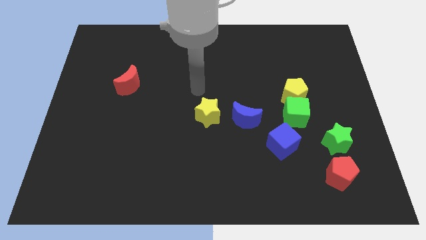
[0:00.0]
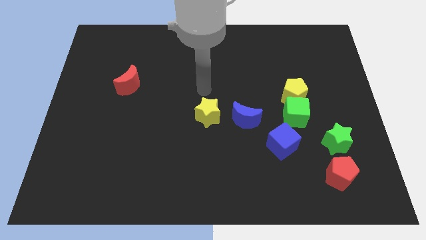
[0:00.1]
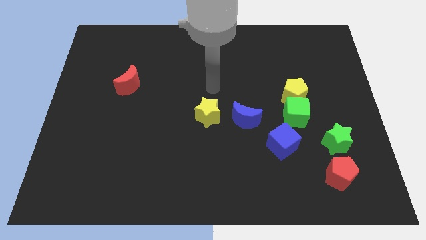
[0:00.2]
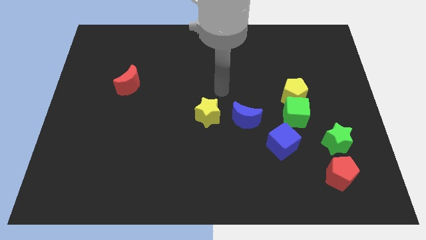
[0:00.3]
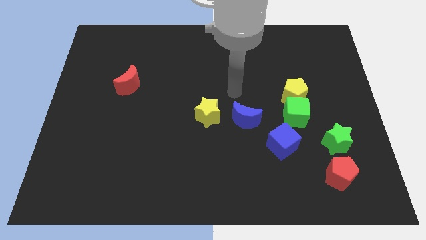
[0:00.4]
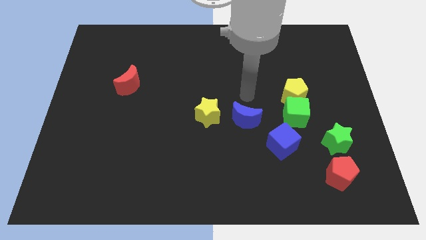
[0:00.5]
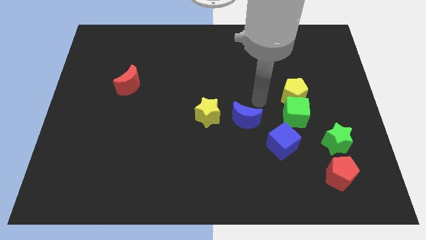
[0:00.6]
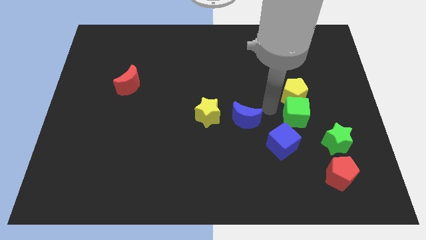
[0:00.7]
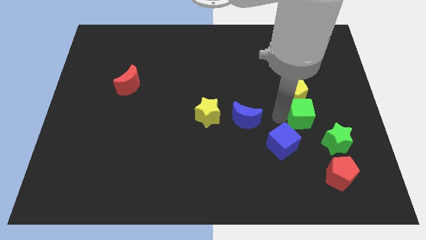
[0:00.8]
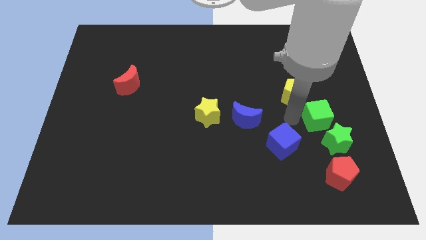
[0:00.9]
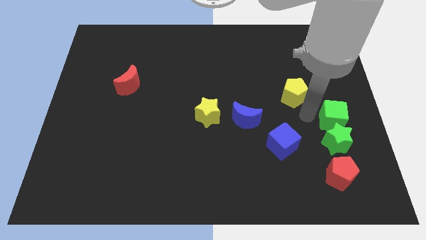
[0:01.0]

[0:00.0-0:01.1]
move the yellow pentagon away from the green cube

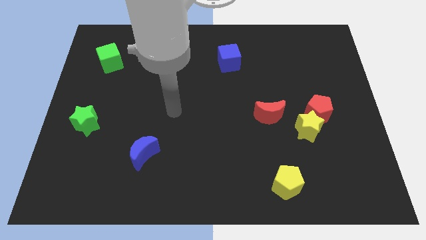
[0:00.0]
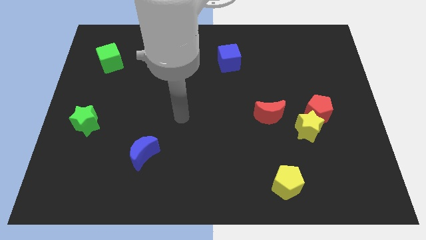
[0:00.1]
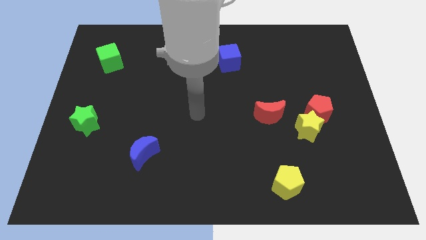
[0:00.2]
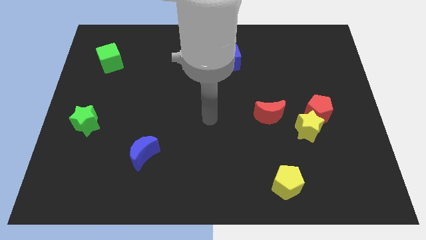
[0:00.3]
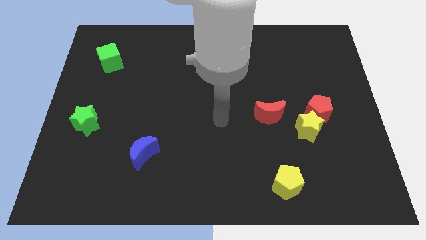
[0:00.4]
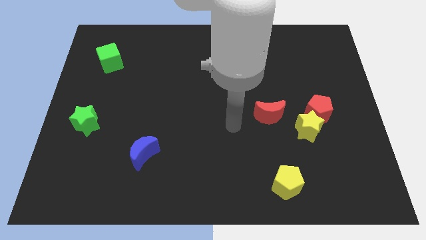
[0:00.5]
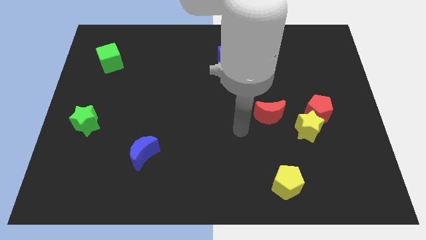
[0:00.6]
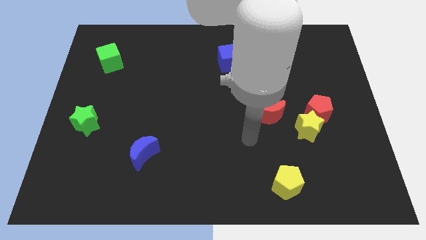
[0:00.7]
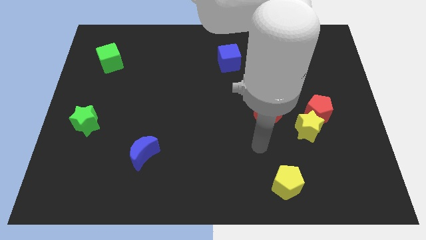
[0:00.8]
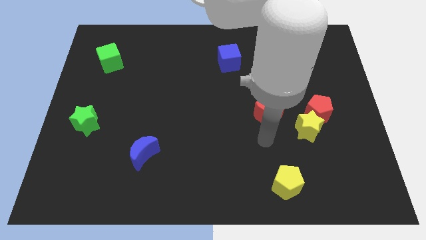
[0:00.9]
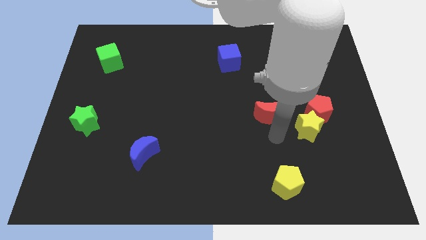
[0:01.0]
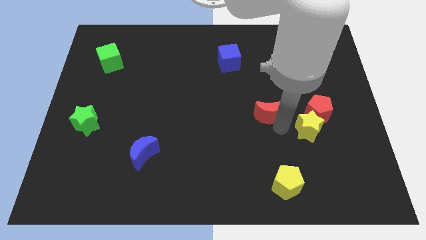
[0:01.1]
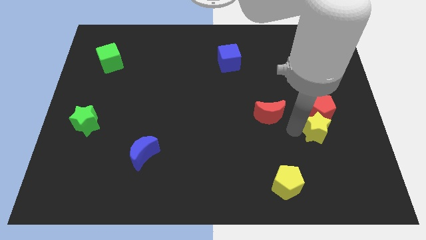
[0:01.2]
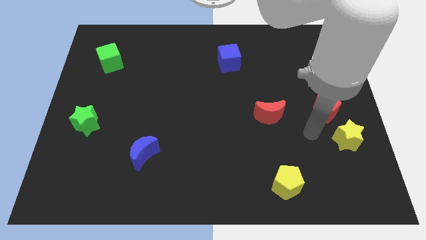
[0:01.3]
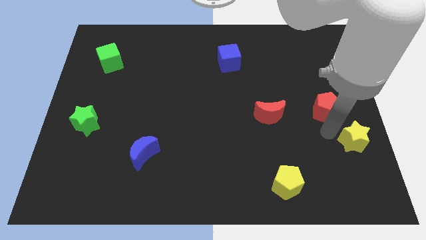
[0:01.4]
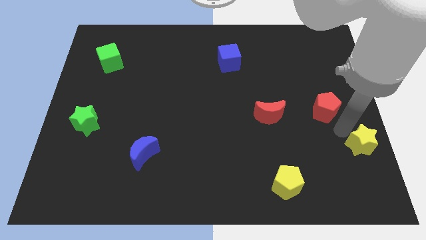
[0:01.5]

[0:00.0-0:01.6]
move the red pentagon away from the yellow star

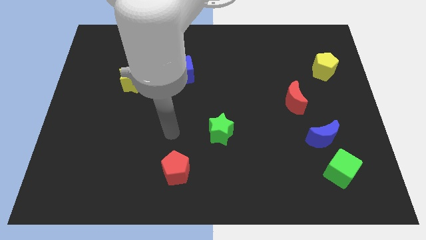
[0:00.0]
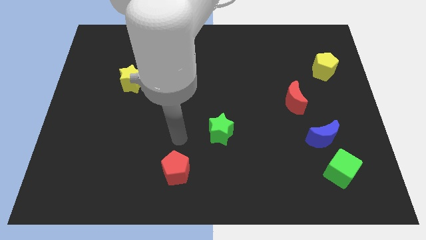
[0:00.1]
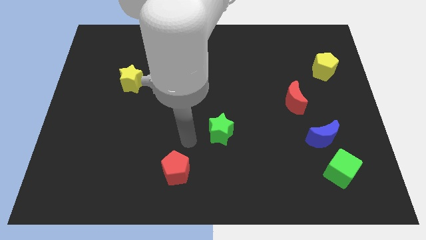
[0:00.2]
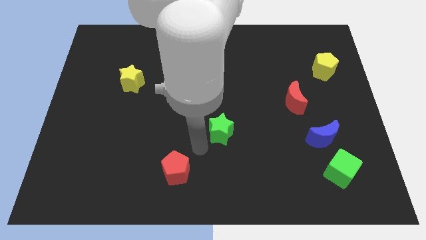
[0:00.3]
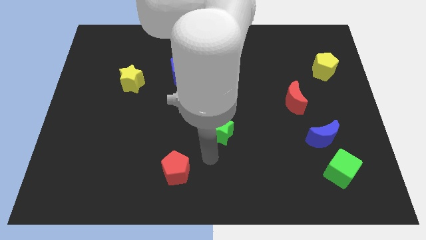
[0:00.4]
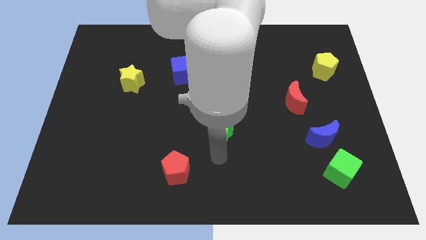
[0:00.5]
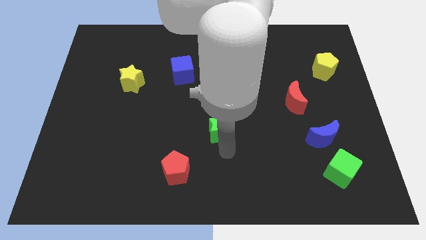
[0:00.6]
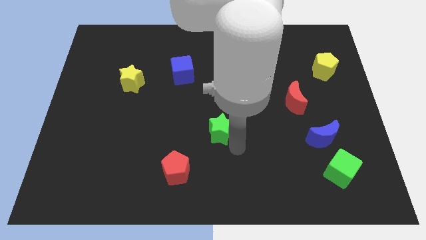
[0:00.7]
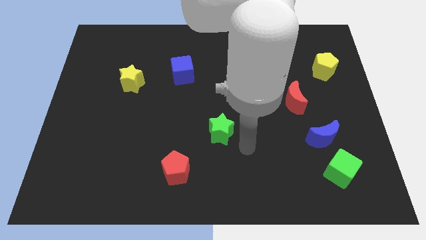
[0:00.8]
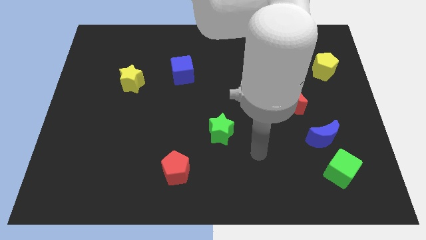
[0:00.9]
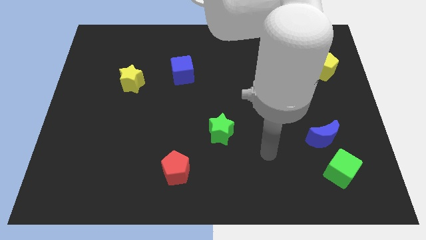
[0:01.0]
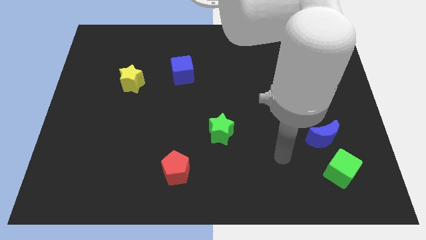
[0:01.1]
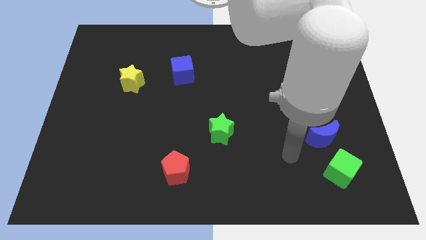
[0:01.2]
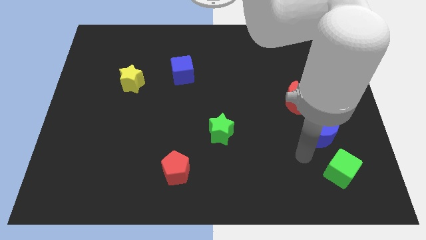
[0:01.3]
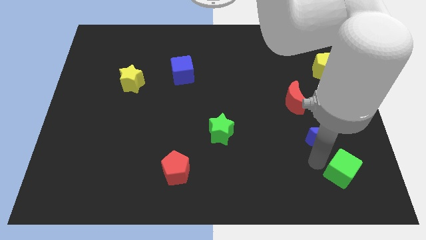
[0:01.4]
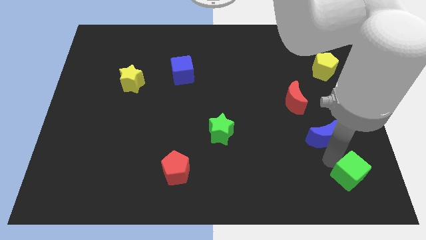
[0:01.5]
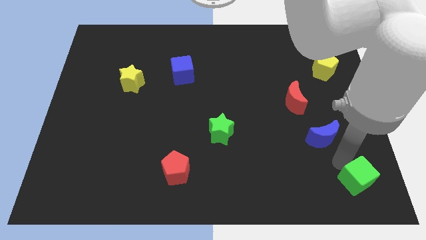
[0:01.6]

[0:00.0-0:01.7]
move the blue moon away from the green cube

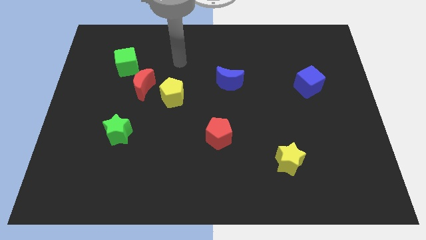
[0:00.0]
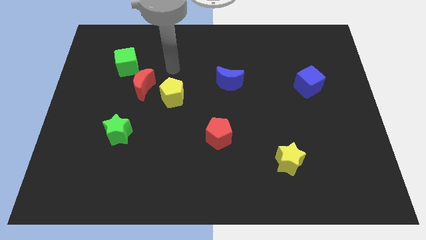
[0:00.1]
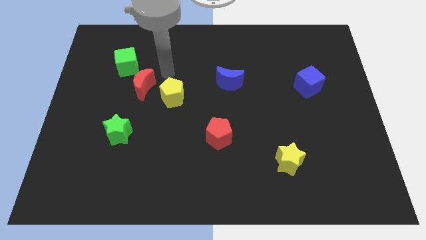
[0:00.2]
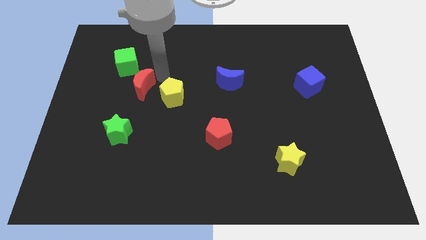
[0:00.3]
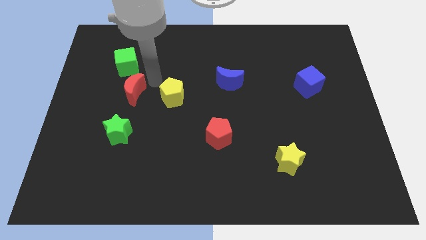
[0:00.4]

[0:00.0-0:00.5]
separate the yellow pentagon from the red moon

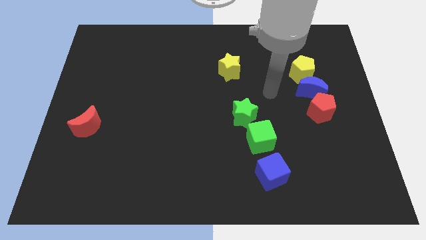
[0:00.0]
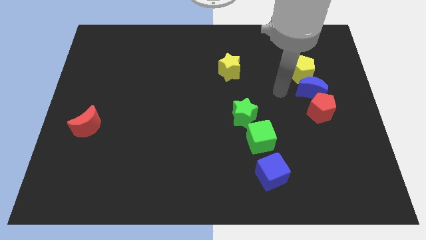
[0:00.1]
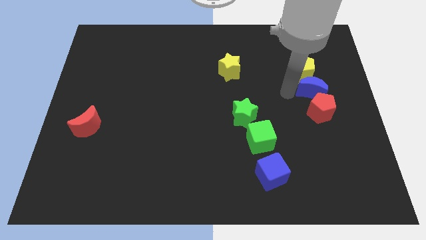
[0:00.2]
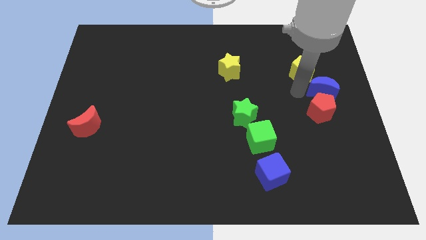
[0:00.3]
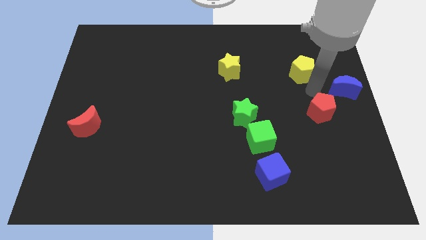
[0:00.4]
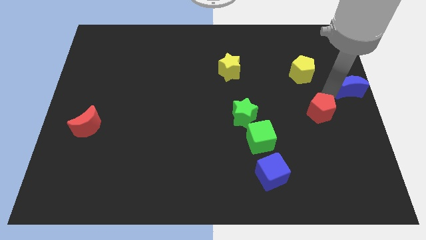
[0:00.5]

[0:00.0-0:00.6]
separate the red pentagon from the blue moon

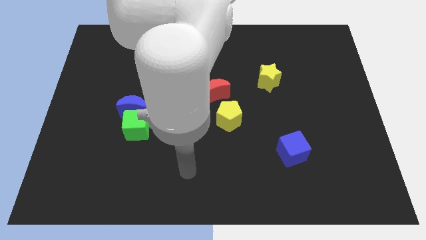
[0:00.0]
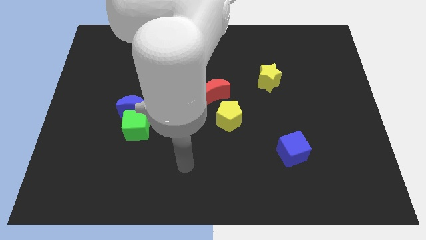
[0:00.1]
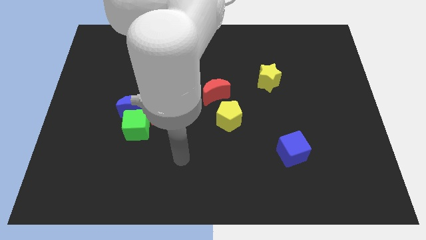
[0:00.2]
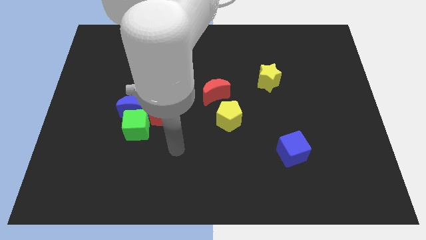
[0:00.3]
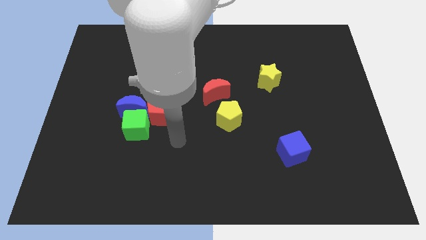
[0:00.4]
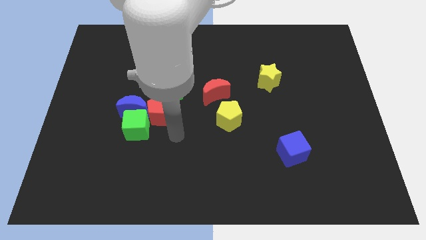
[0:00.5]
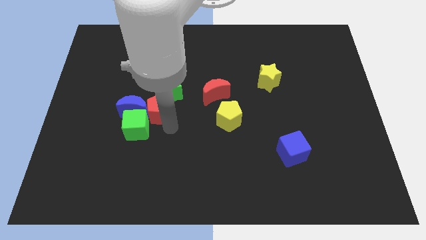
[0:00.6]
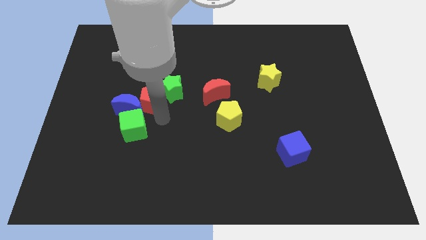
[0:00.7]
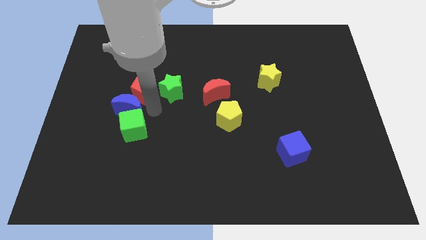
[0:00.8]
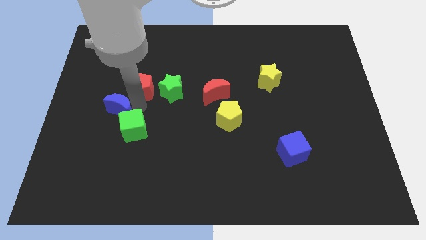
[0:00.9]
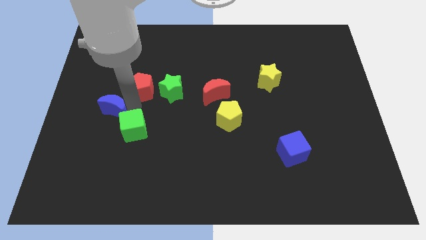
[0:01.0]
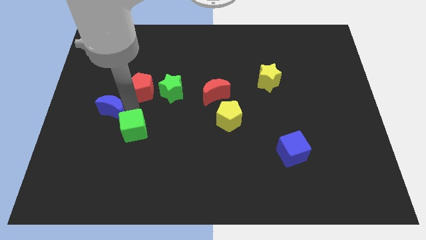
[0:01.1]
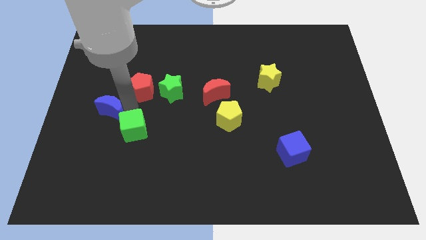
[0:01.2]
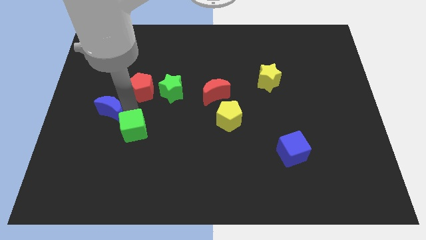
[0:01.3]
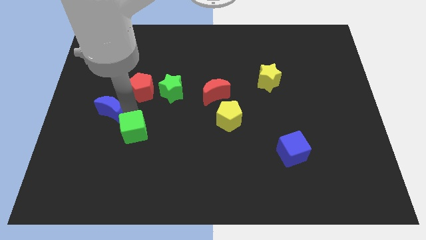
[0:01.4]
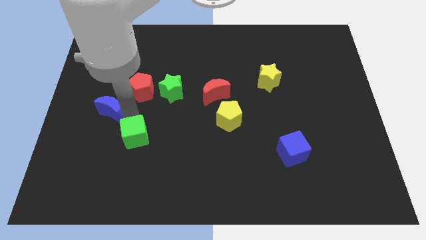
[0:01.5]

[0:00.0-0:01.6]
pull the green cube apart from the blue moon and red pentagon

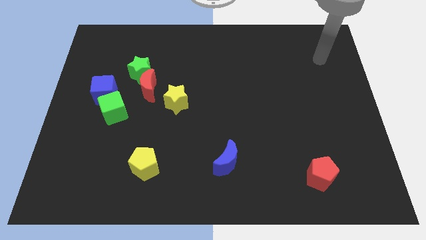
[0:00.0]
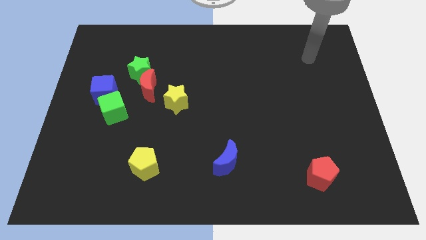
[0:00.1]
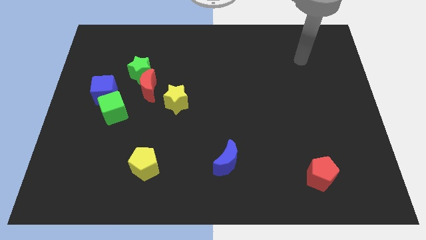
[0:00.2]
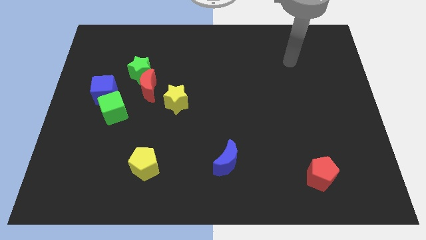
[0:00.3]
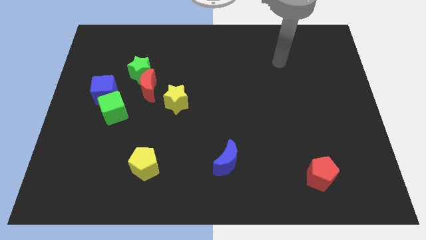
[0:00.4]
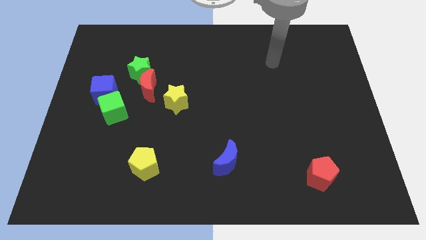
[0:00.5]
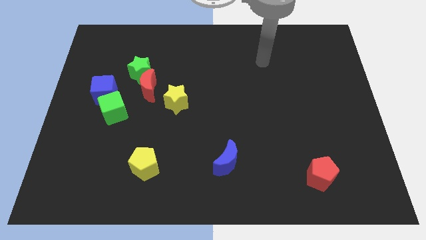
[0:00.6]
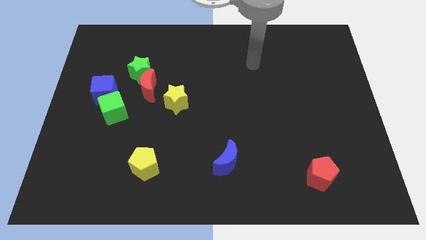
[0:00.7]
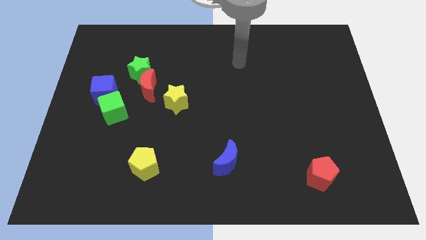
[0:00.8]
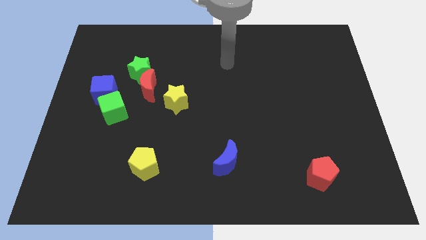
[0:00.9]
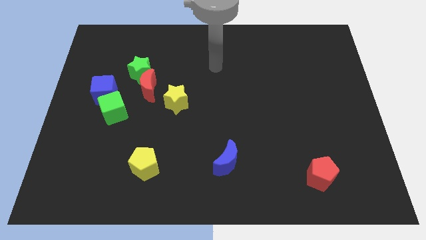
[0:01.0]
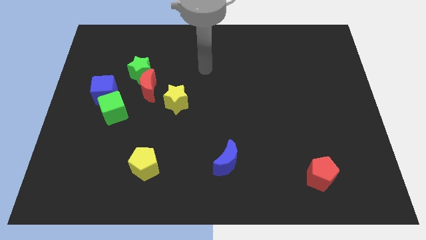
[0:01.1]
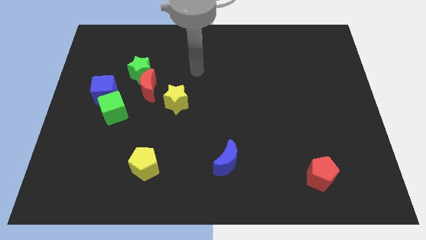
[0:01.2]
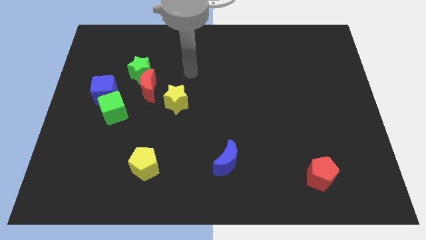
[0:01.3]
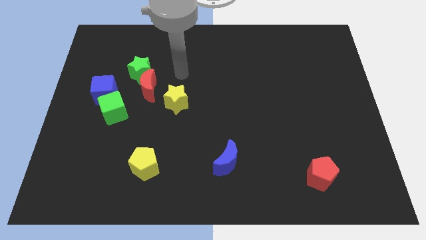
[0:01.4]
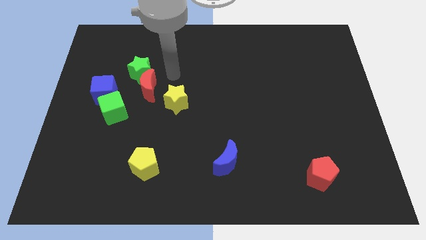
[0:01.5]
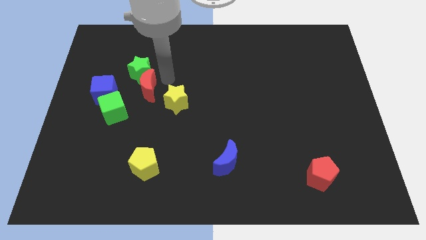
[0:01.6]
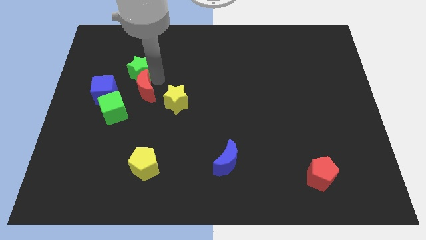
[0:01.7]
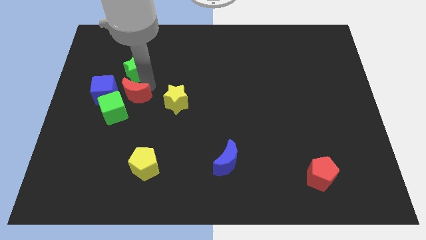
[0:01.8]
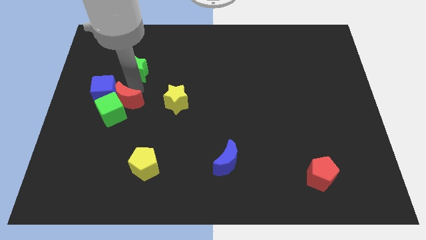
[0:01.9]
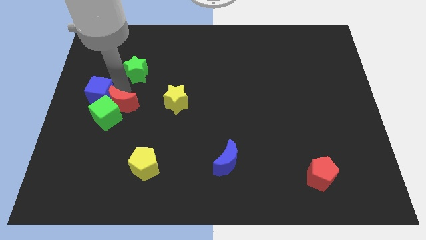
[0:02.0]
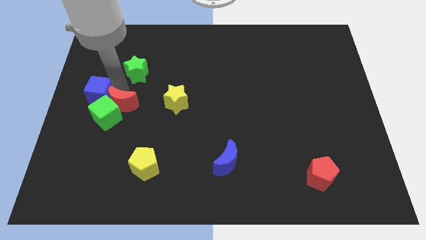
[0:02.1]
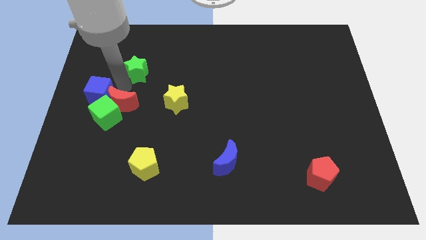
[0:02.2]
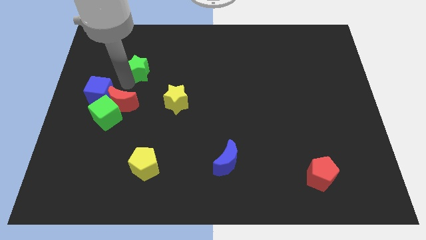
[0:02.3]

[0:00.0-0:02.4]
pull the green star apart from the red moon and blue cube
